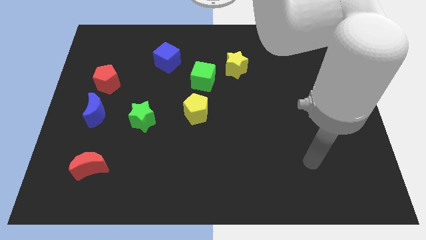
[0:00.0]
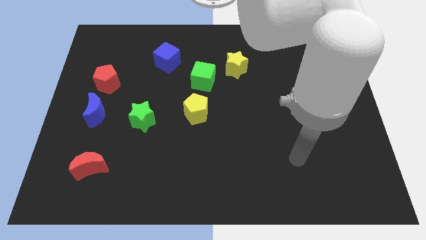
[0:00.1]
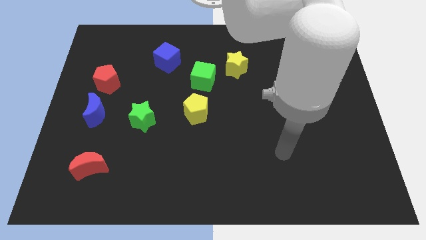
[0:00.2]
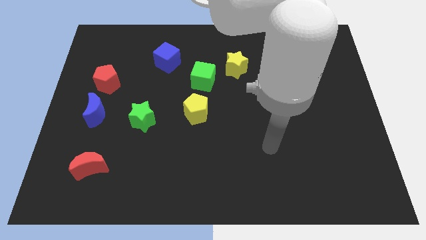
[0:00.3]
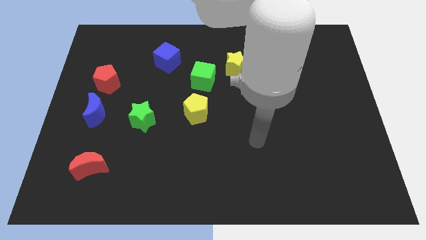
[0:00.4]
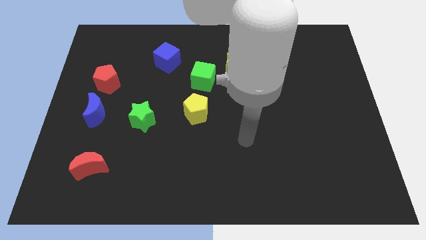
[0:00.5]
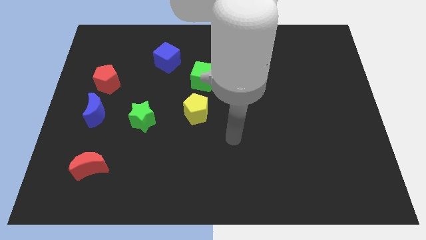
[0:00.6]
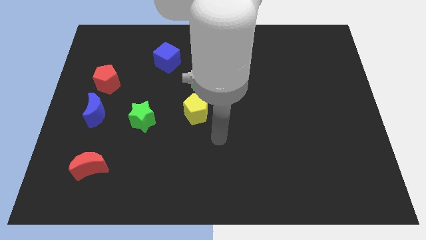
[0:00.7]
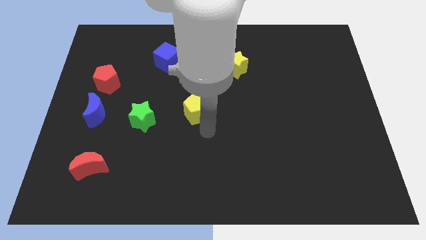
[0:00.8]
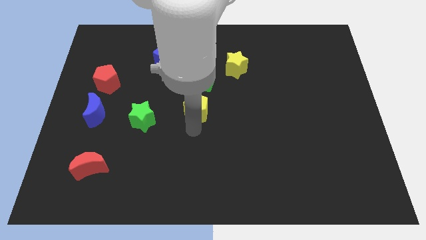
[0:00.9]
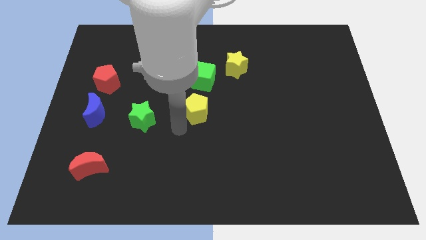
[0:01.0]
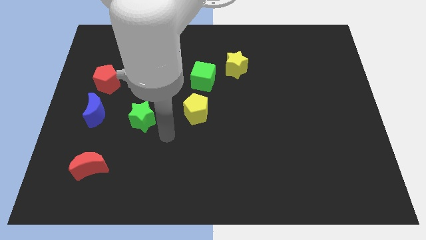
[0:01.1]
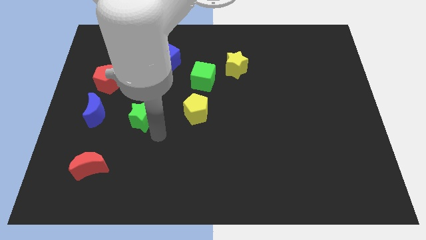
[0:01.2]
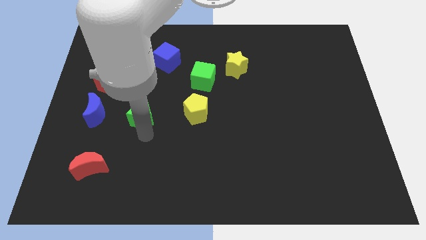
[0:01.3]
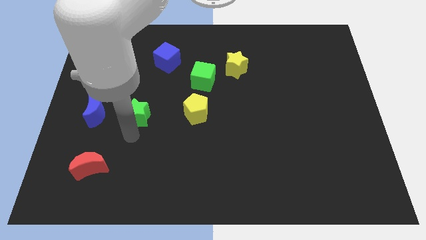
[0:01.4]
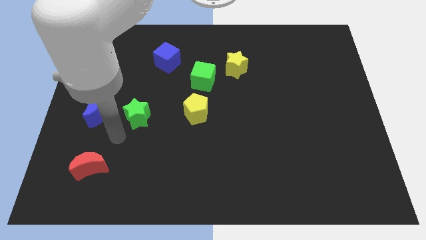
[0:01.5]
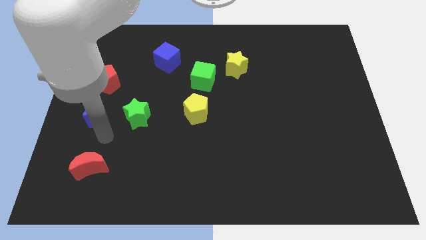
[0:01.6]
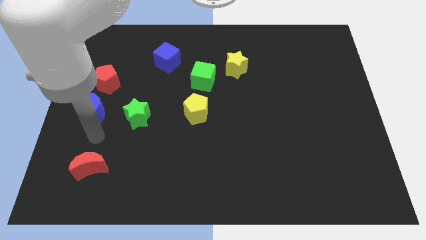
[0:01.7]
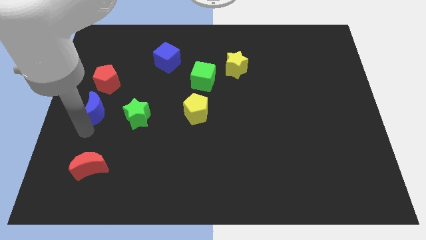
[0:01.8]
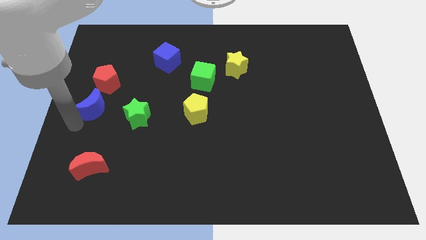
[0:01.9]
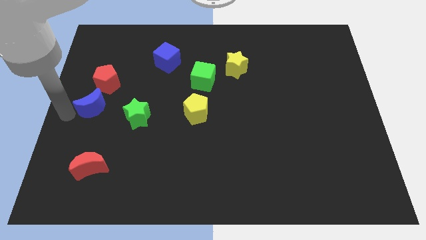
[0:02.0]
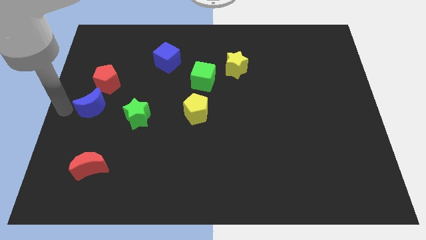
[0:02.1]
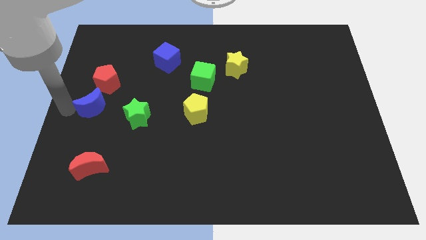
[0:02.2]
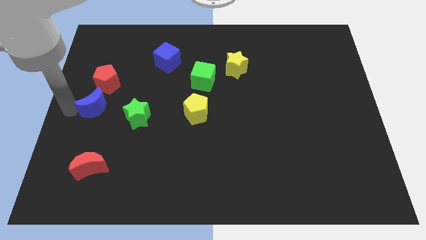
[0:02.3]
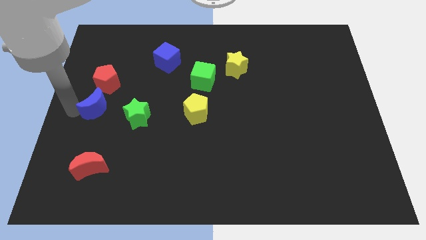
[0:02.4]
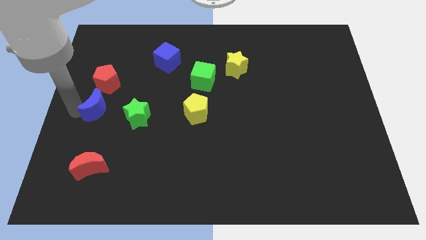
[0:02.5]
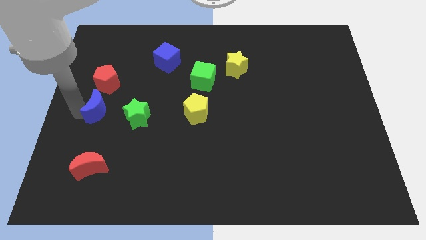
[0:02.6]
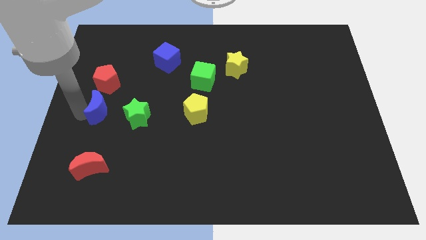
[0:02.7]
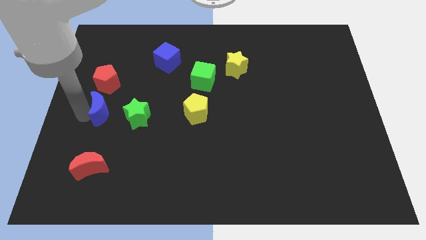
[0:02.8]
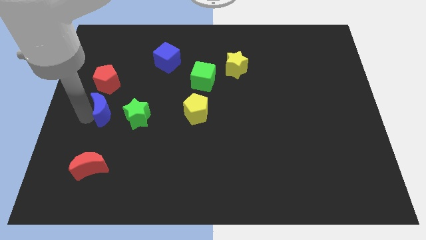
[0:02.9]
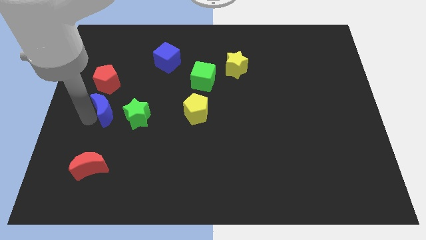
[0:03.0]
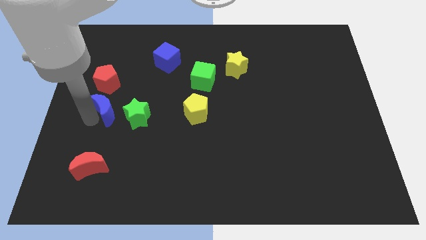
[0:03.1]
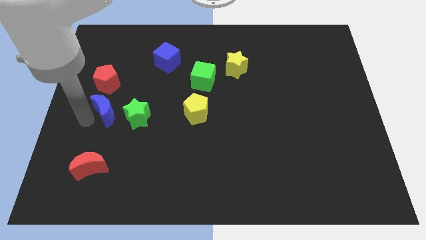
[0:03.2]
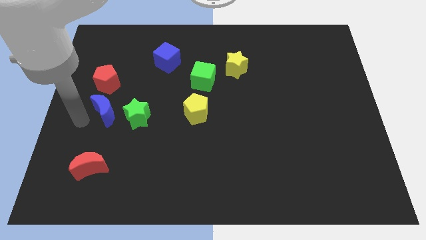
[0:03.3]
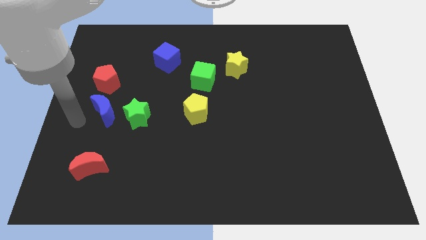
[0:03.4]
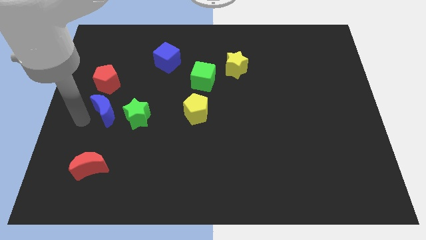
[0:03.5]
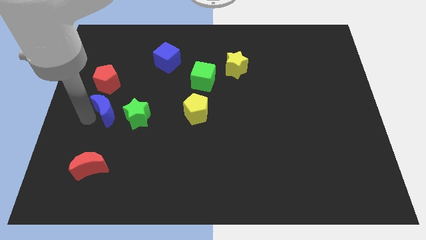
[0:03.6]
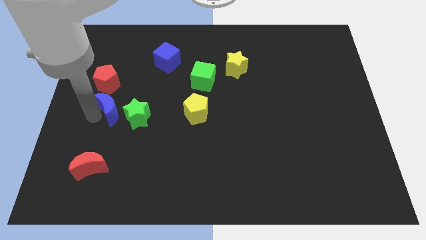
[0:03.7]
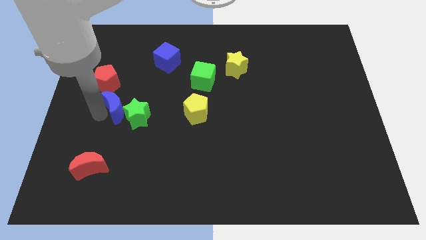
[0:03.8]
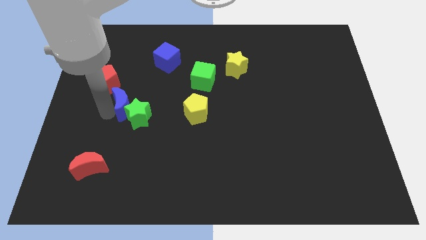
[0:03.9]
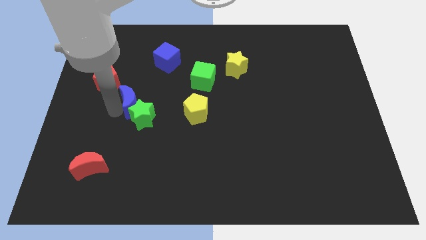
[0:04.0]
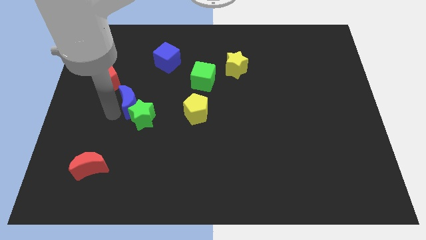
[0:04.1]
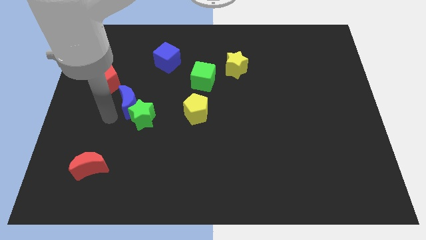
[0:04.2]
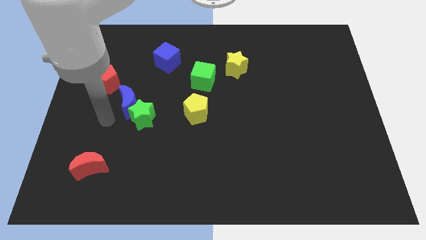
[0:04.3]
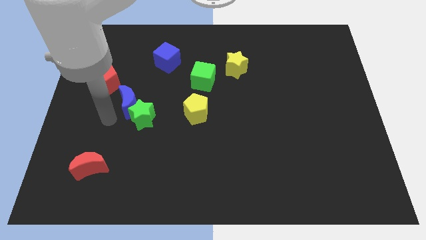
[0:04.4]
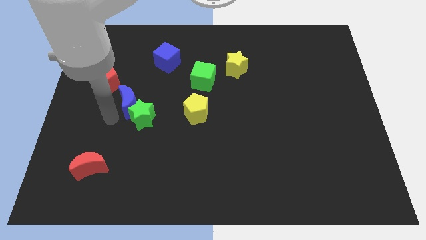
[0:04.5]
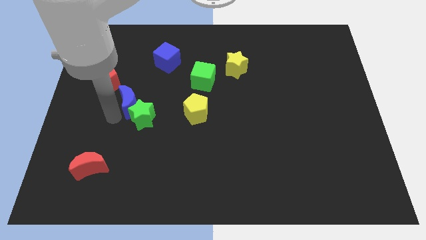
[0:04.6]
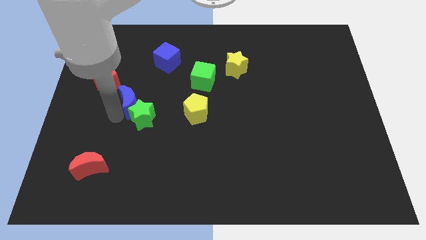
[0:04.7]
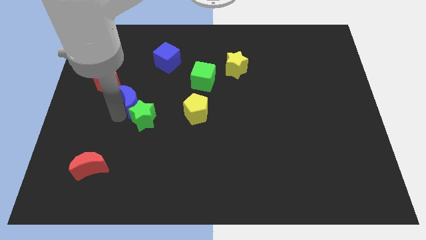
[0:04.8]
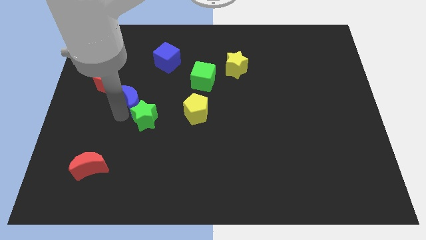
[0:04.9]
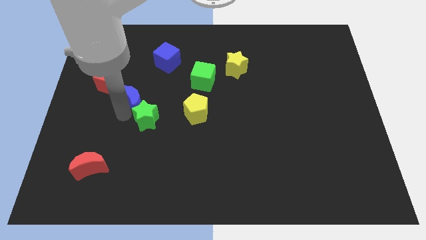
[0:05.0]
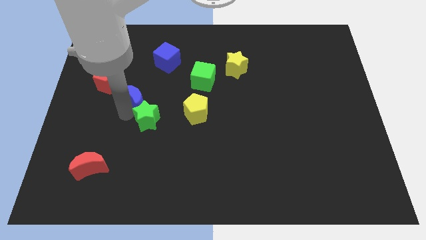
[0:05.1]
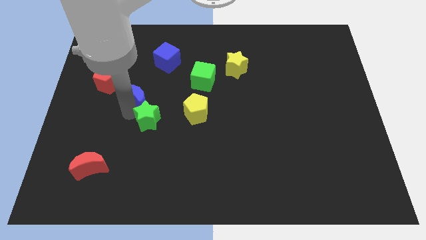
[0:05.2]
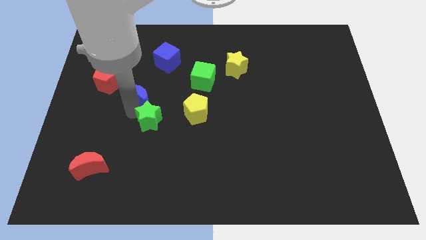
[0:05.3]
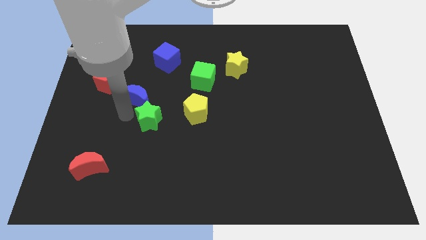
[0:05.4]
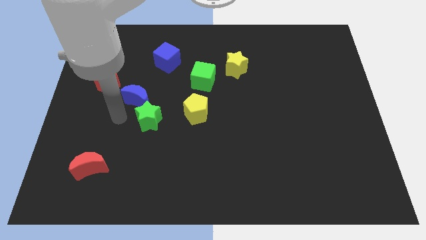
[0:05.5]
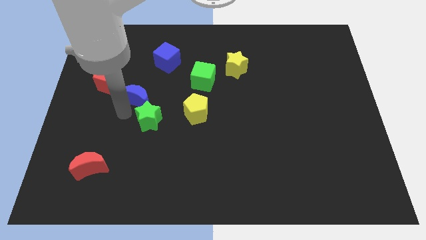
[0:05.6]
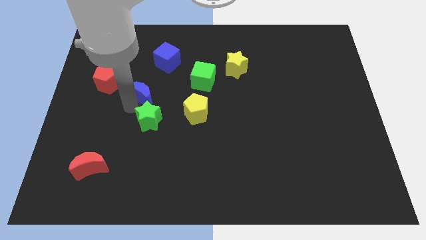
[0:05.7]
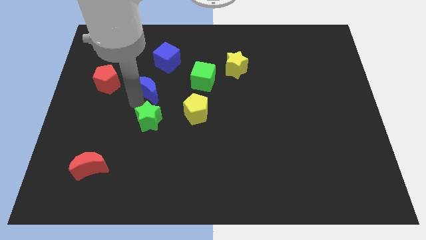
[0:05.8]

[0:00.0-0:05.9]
slide the blue moon to the left side of the green cube
